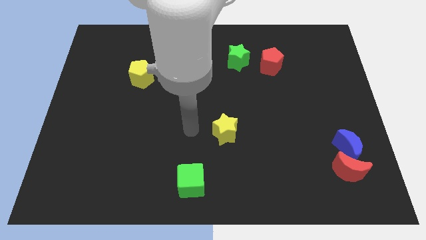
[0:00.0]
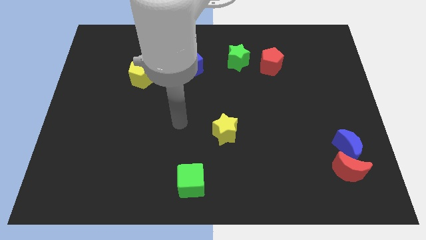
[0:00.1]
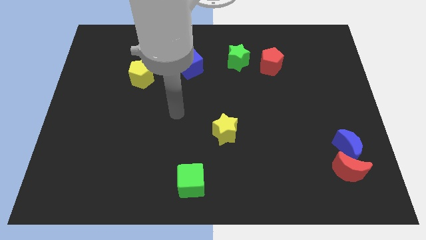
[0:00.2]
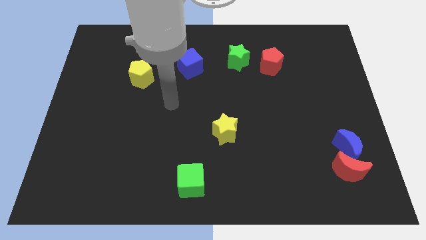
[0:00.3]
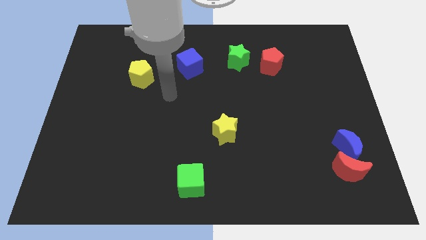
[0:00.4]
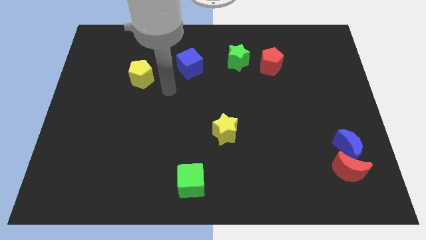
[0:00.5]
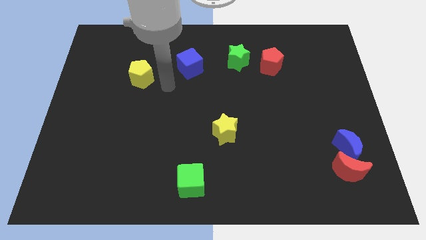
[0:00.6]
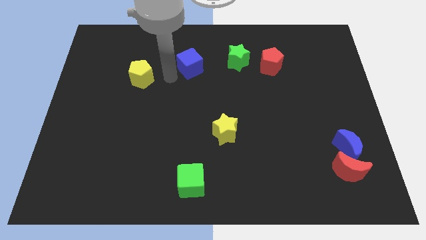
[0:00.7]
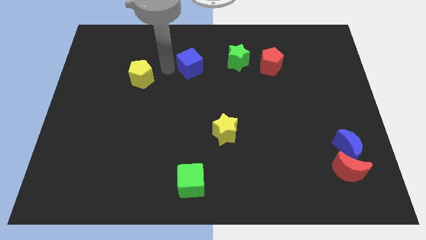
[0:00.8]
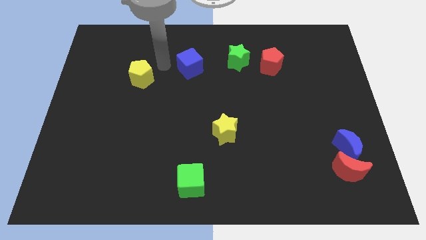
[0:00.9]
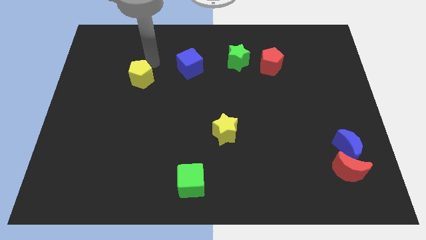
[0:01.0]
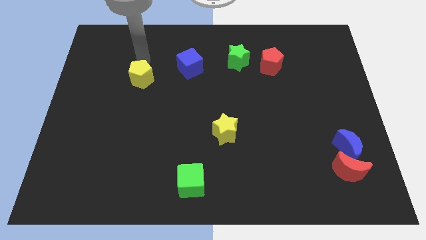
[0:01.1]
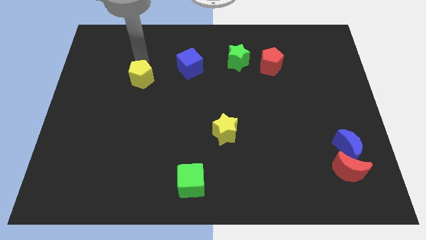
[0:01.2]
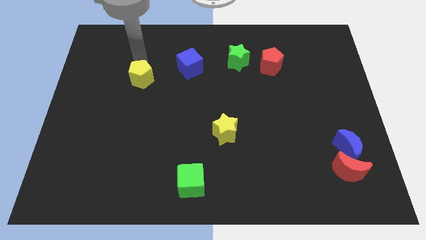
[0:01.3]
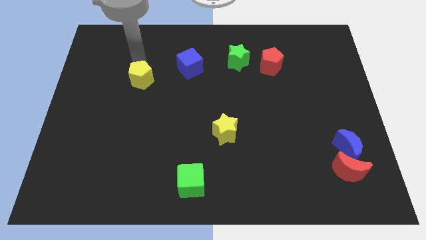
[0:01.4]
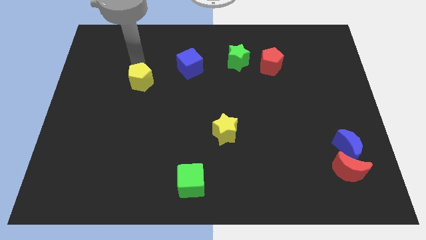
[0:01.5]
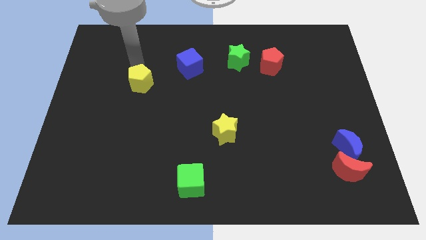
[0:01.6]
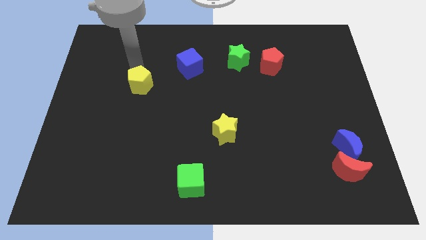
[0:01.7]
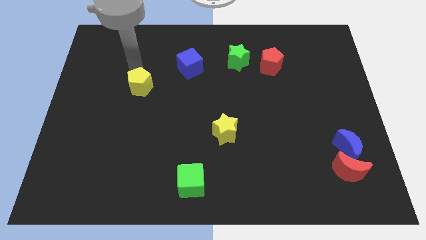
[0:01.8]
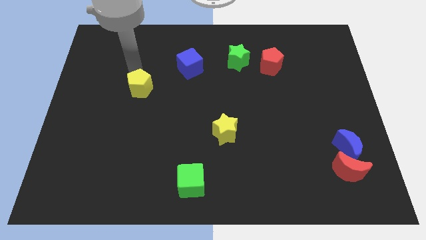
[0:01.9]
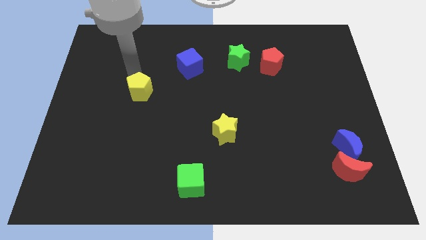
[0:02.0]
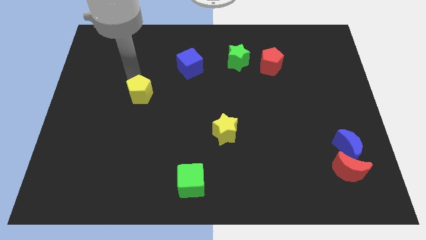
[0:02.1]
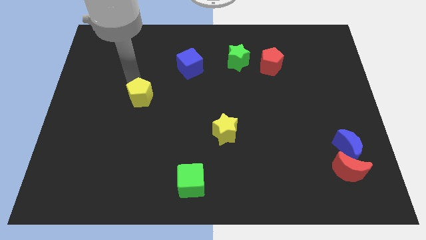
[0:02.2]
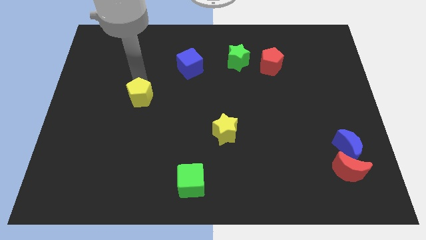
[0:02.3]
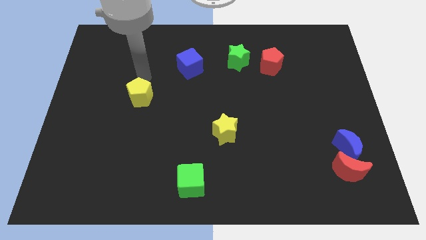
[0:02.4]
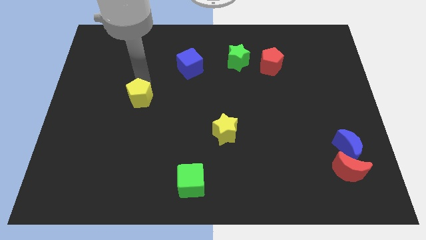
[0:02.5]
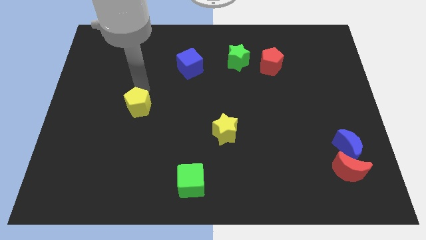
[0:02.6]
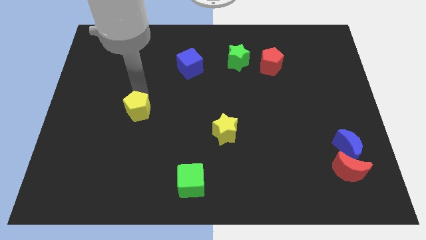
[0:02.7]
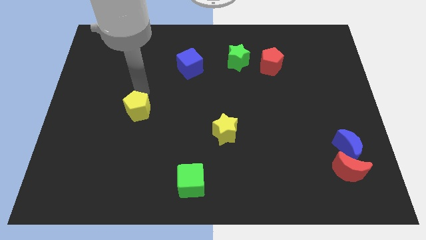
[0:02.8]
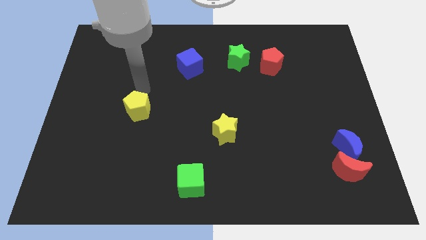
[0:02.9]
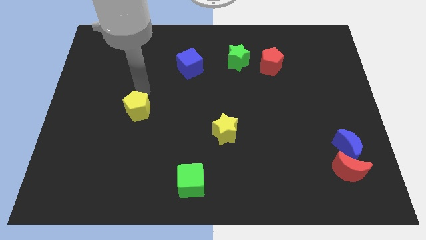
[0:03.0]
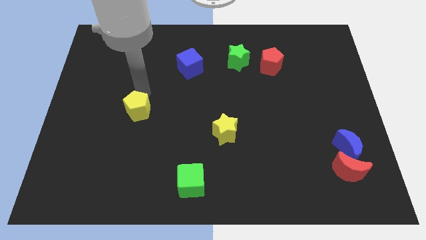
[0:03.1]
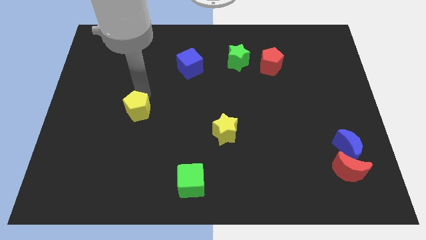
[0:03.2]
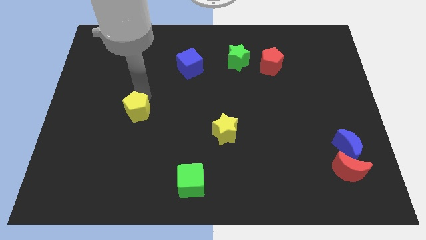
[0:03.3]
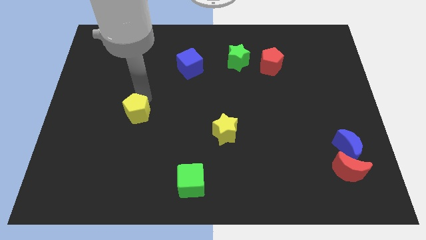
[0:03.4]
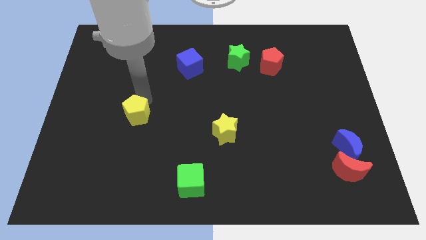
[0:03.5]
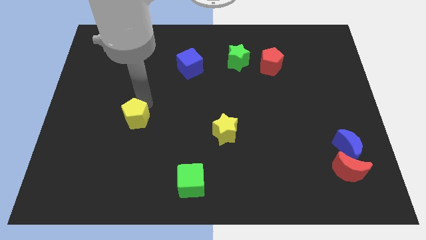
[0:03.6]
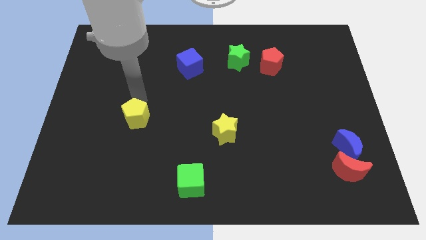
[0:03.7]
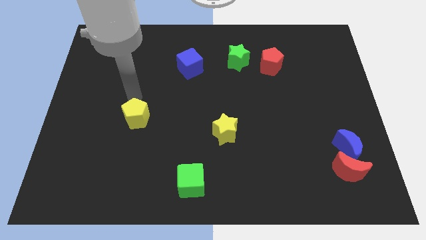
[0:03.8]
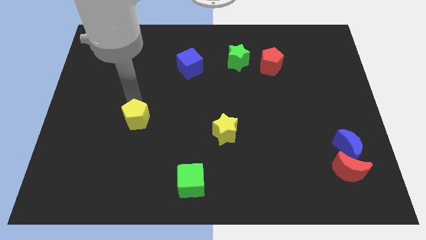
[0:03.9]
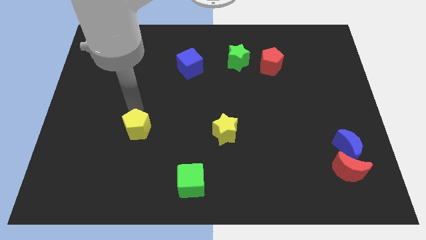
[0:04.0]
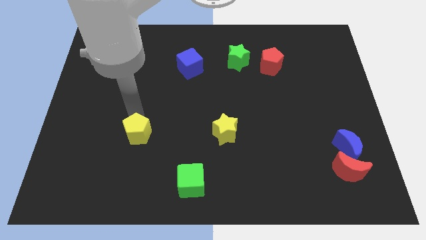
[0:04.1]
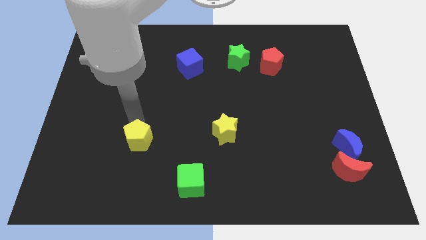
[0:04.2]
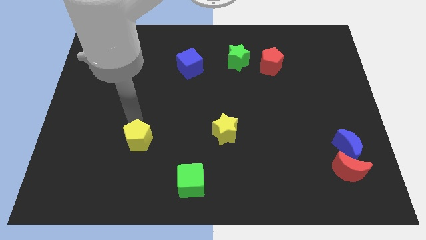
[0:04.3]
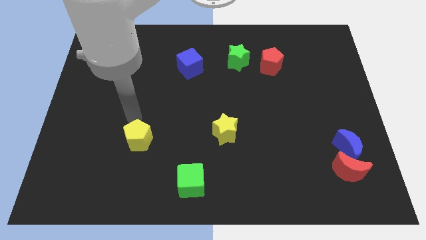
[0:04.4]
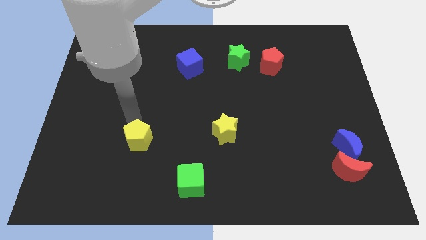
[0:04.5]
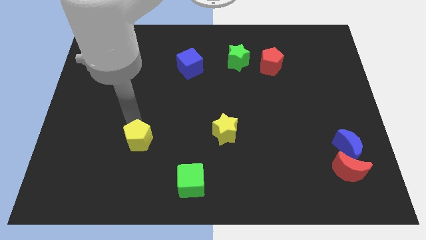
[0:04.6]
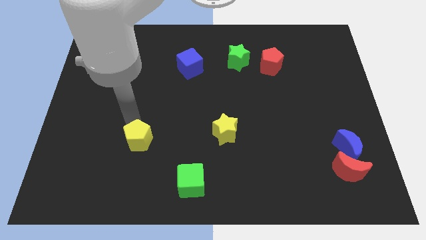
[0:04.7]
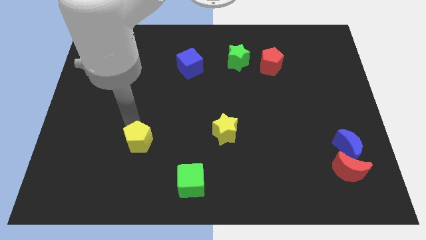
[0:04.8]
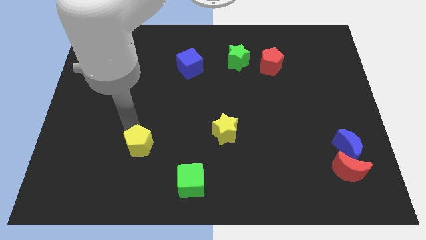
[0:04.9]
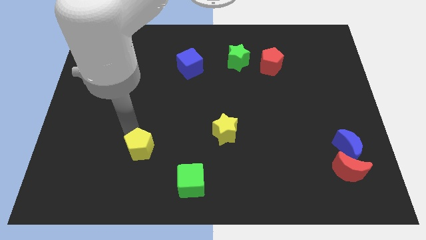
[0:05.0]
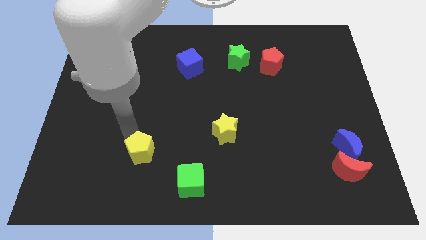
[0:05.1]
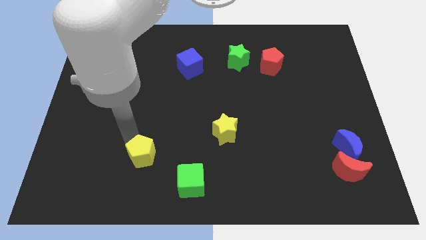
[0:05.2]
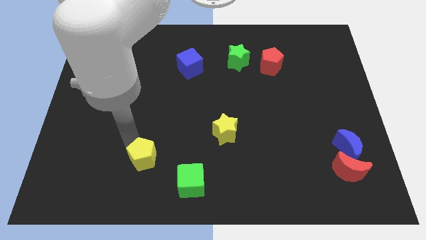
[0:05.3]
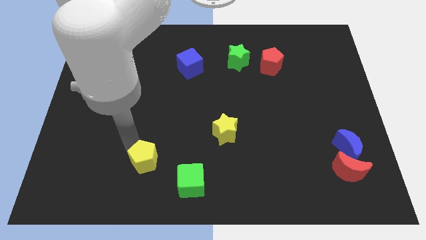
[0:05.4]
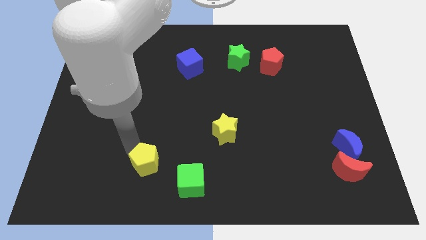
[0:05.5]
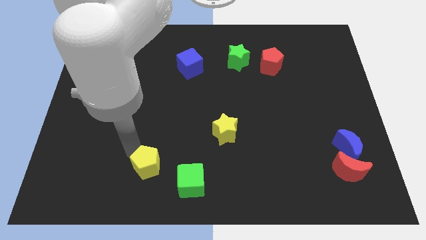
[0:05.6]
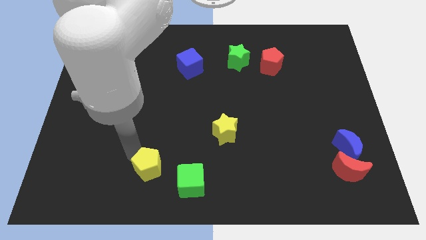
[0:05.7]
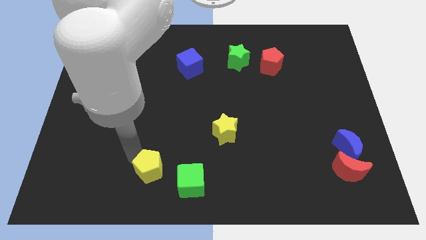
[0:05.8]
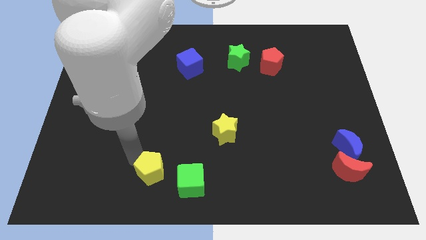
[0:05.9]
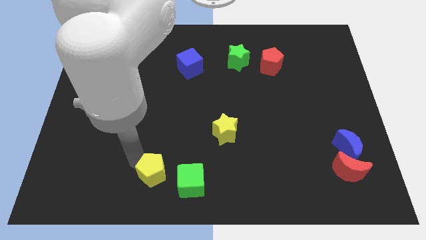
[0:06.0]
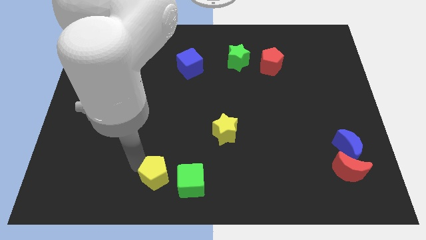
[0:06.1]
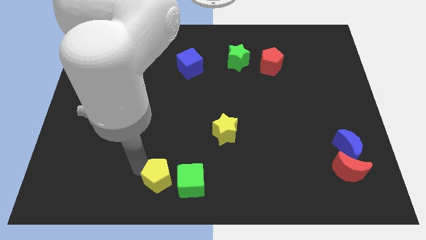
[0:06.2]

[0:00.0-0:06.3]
slide the yellow pentagon to the bottom side

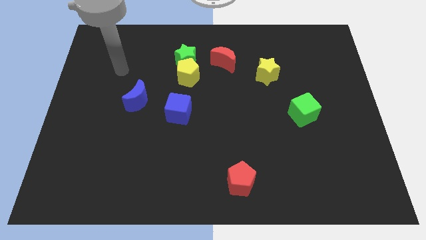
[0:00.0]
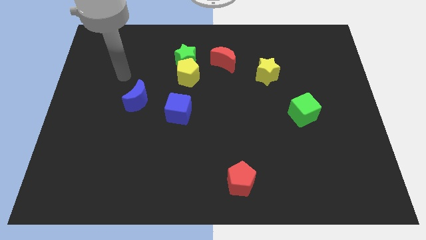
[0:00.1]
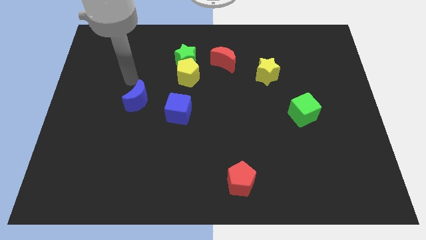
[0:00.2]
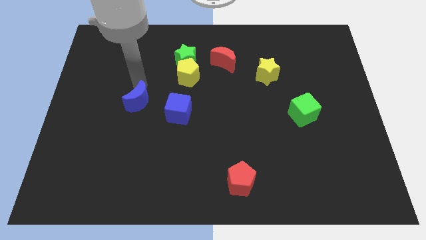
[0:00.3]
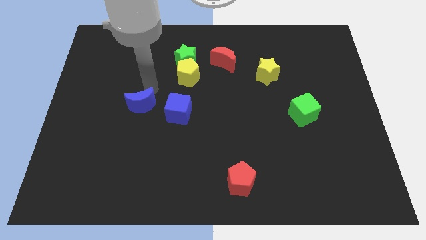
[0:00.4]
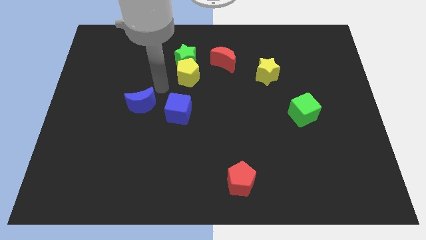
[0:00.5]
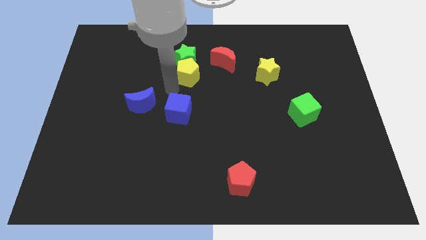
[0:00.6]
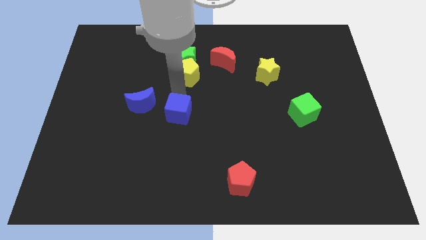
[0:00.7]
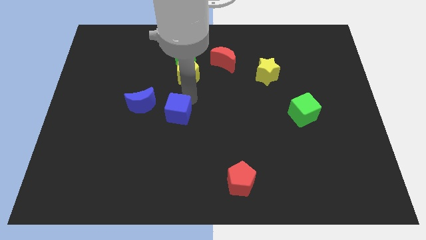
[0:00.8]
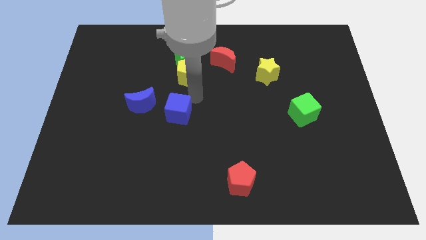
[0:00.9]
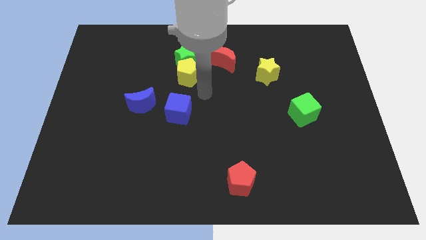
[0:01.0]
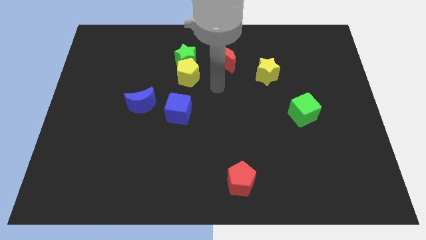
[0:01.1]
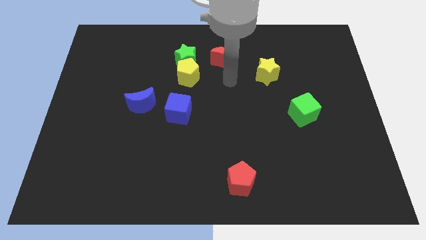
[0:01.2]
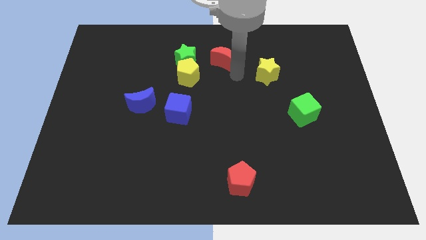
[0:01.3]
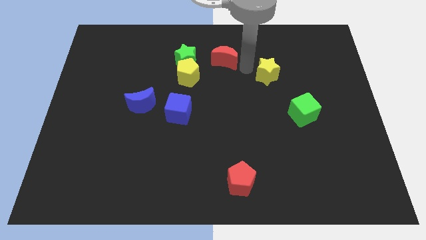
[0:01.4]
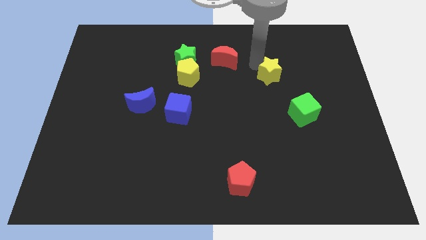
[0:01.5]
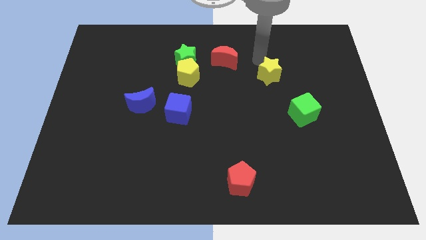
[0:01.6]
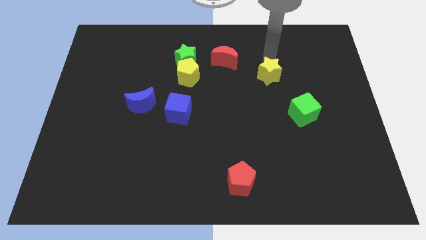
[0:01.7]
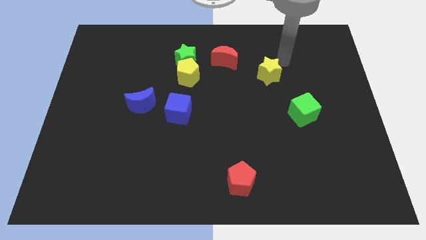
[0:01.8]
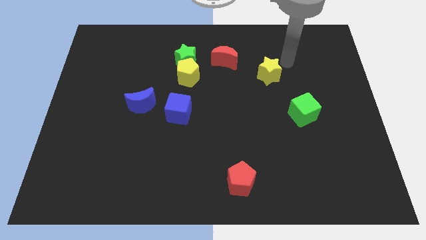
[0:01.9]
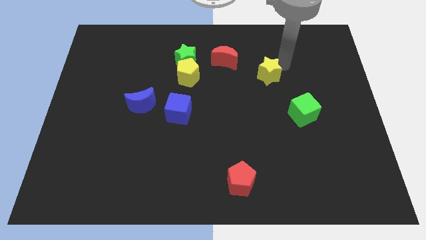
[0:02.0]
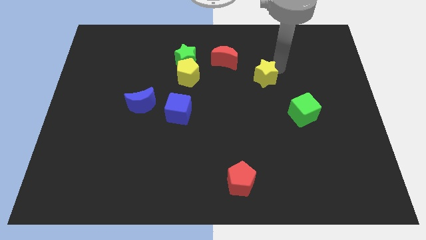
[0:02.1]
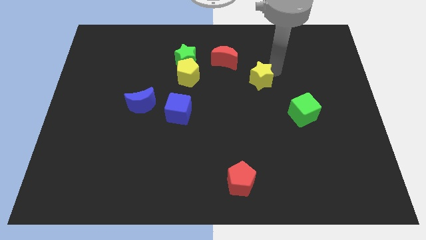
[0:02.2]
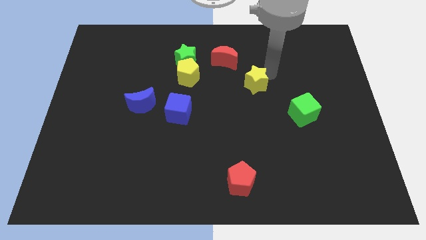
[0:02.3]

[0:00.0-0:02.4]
push the yellow star to the middle
